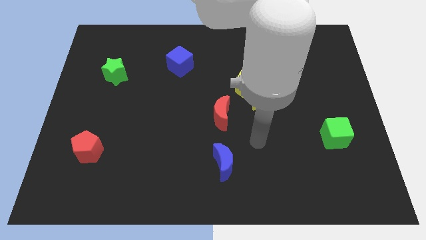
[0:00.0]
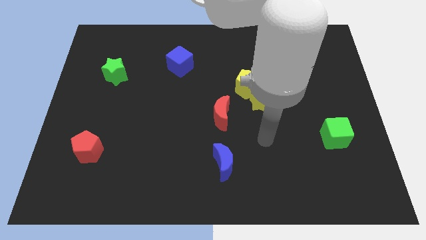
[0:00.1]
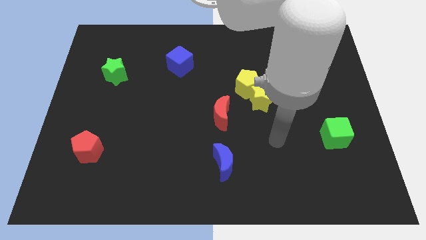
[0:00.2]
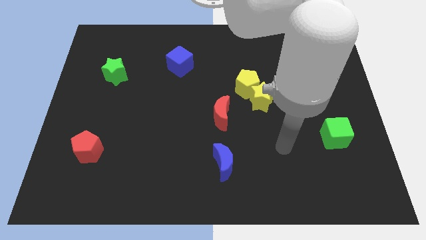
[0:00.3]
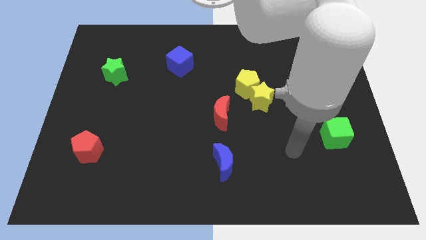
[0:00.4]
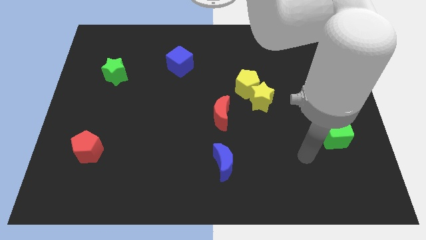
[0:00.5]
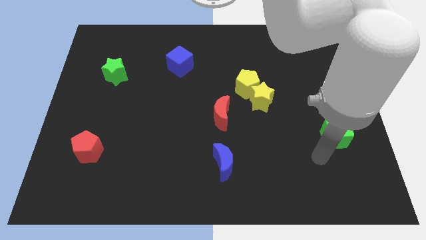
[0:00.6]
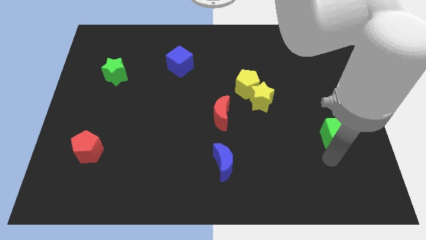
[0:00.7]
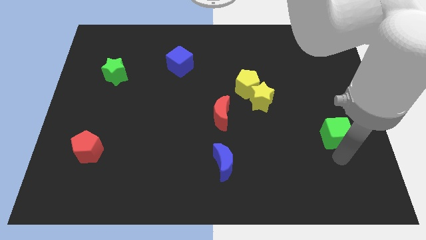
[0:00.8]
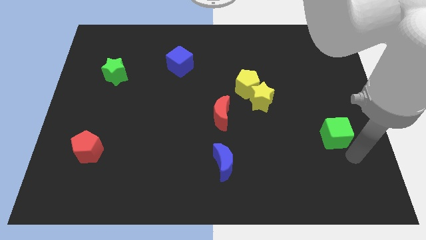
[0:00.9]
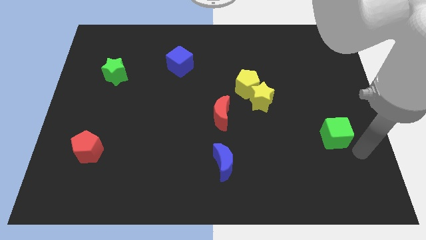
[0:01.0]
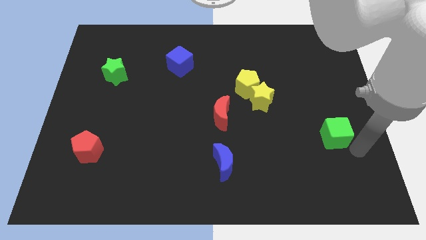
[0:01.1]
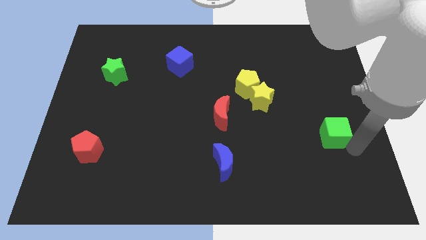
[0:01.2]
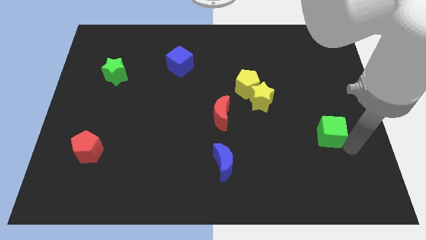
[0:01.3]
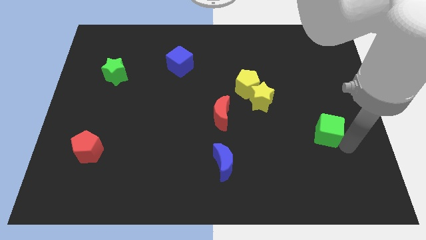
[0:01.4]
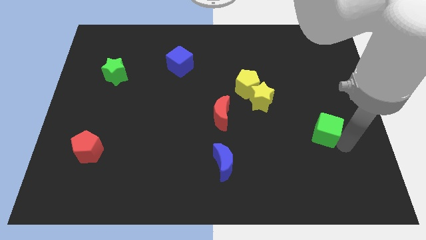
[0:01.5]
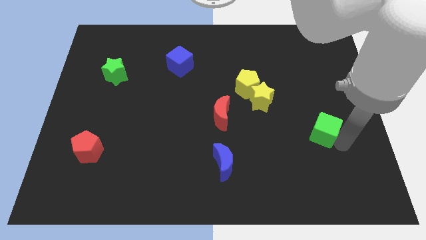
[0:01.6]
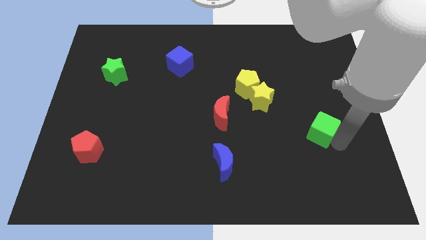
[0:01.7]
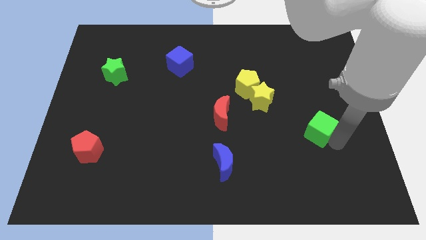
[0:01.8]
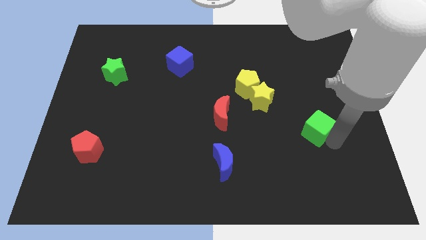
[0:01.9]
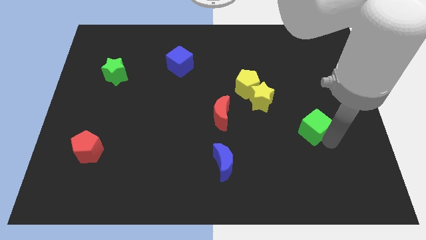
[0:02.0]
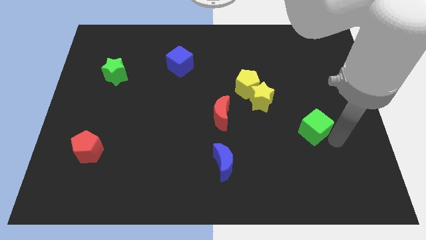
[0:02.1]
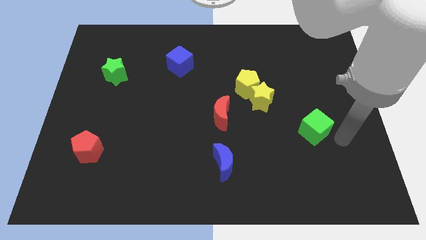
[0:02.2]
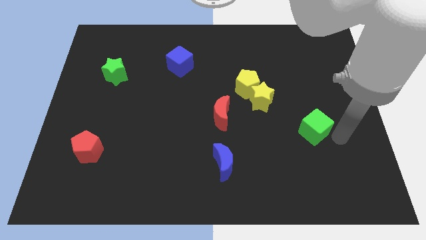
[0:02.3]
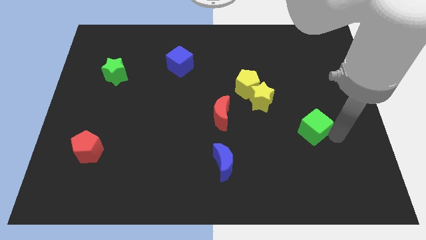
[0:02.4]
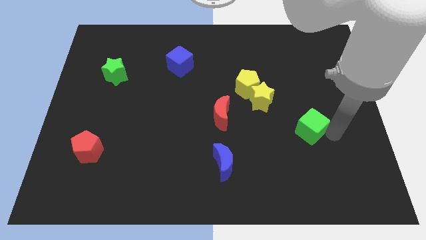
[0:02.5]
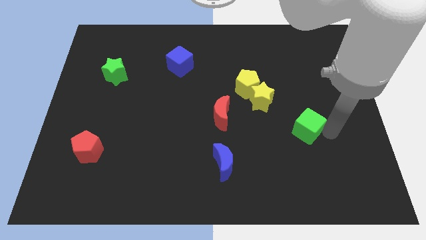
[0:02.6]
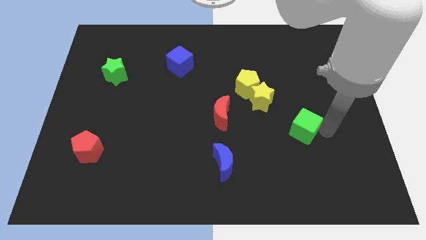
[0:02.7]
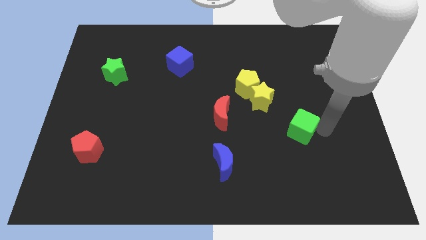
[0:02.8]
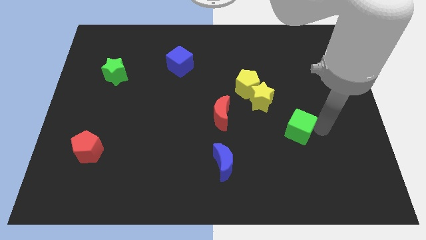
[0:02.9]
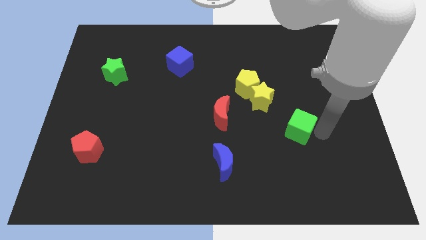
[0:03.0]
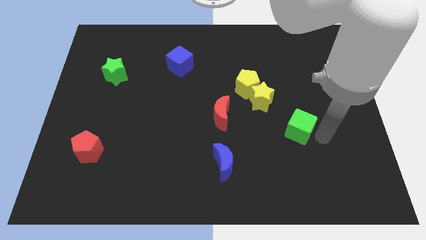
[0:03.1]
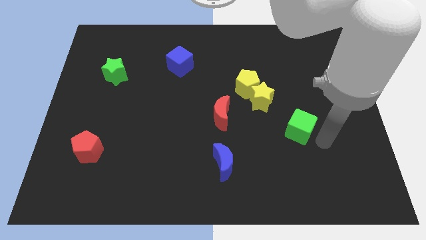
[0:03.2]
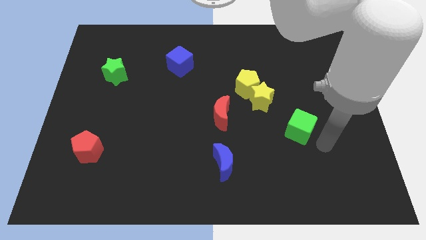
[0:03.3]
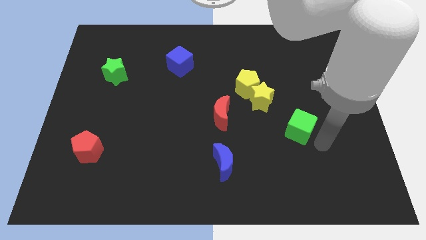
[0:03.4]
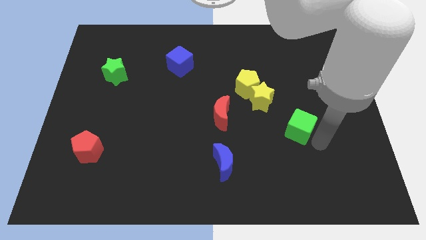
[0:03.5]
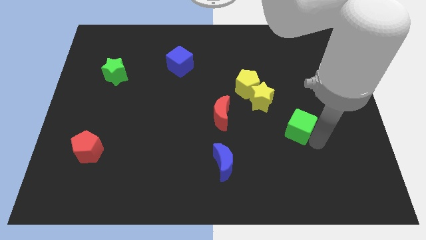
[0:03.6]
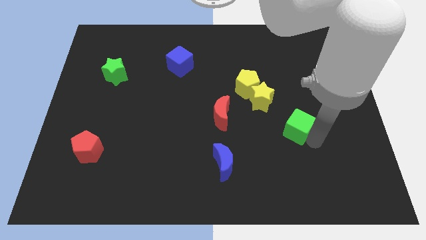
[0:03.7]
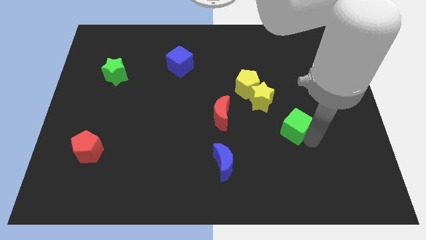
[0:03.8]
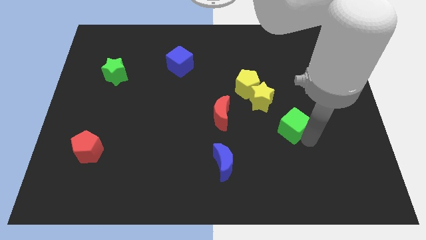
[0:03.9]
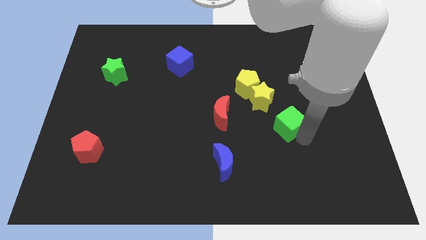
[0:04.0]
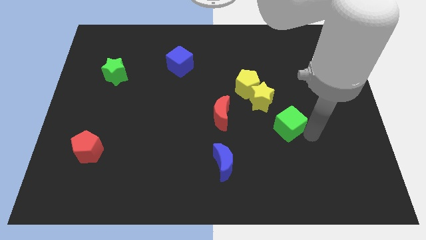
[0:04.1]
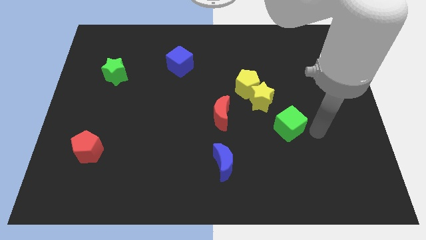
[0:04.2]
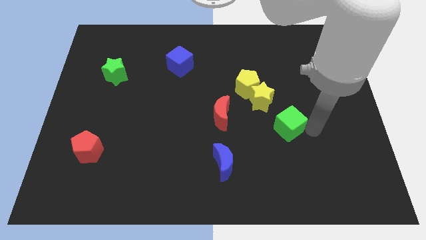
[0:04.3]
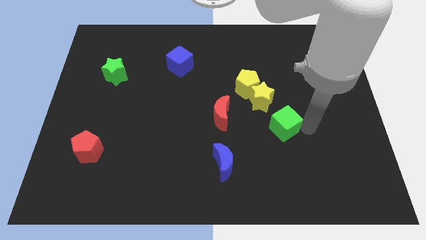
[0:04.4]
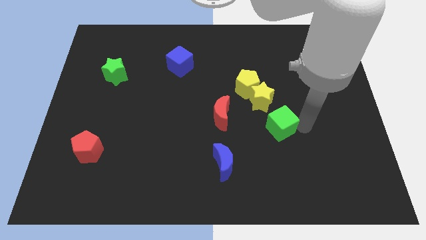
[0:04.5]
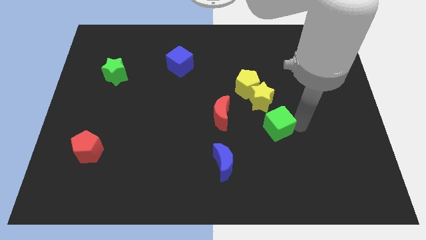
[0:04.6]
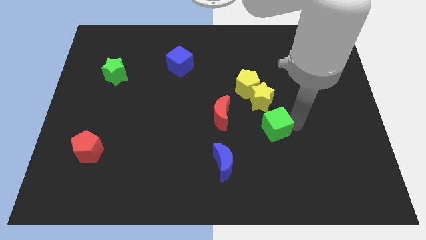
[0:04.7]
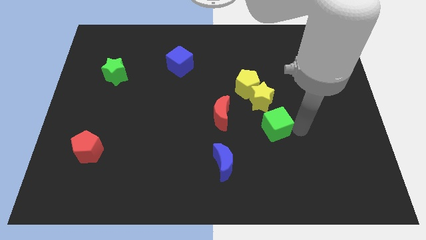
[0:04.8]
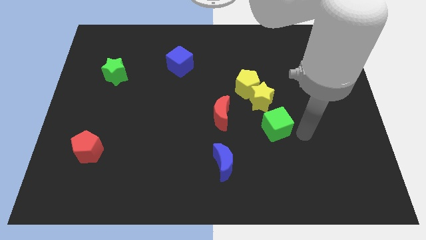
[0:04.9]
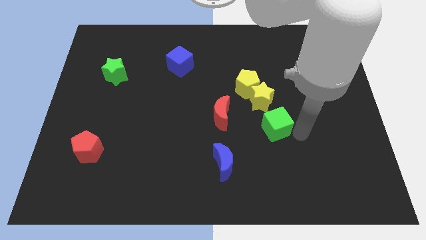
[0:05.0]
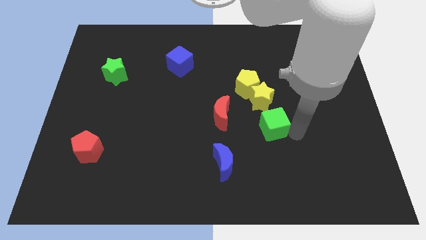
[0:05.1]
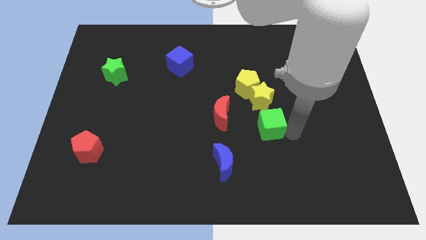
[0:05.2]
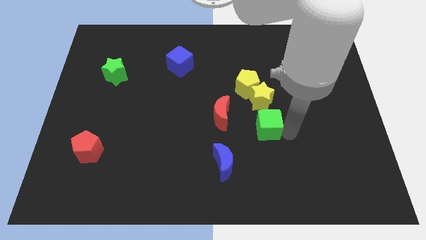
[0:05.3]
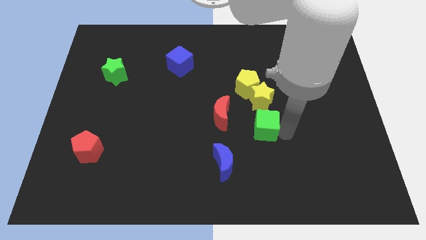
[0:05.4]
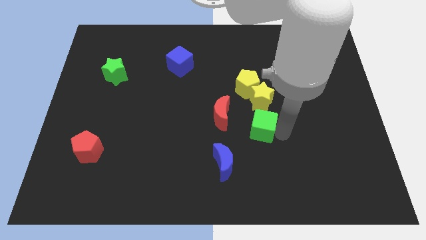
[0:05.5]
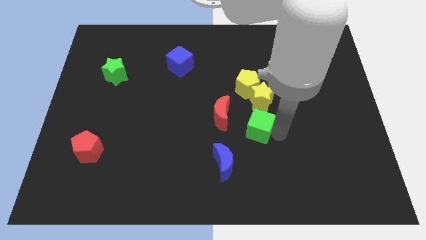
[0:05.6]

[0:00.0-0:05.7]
slide the green cube to the bottom left side of the yellow star
